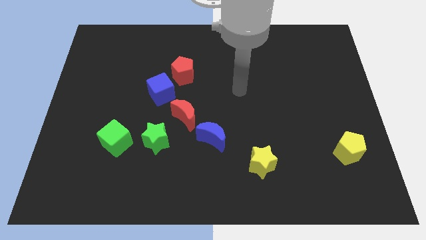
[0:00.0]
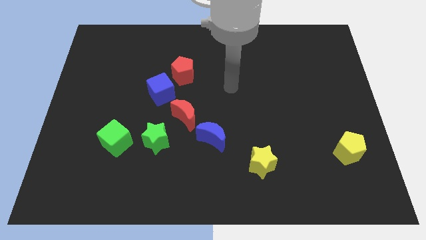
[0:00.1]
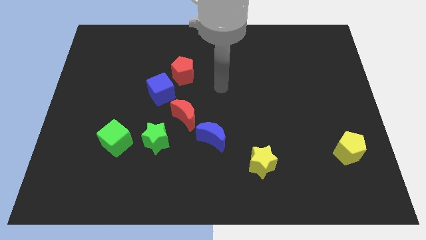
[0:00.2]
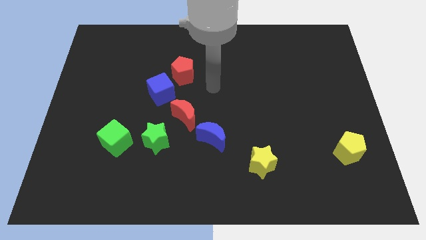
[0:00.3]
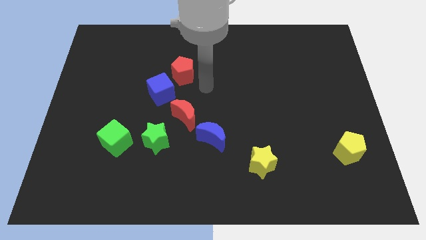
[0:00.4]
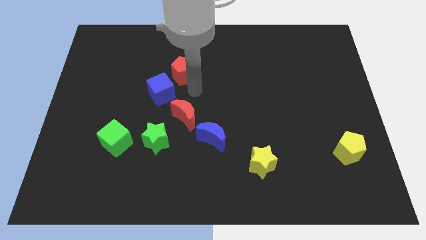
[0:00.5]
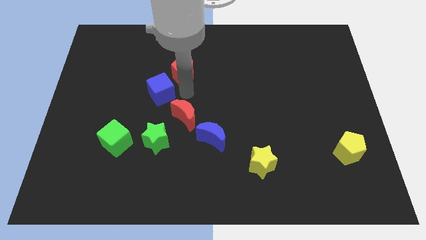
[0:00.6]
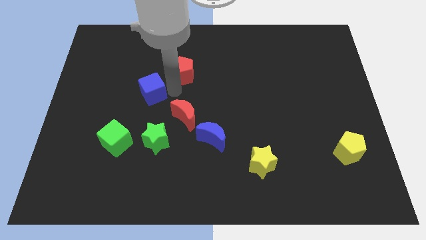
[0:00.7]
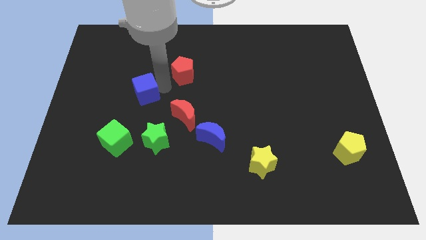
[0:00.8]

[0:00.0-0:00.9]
pull the red pentagon apart from the blue cube

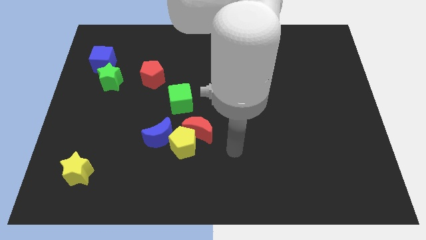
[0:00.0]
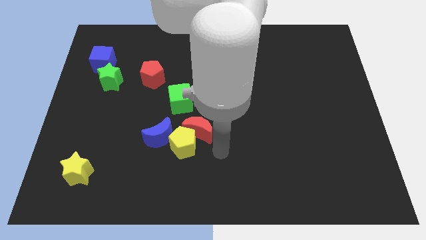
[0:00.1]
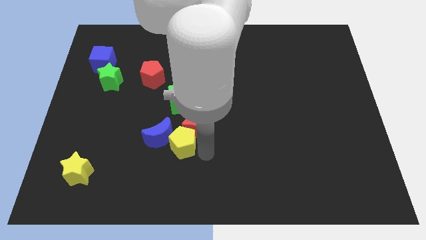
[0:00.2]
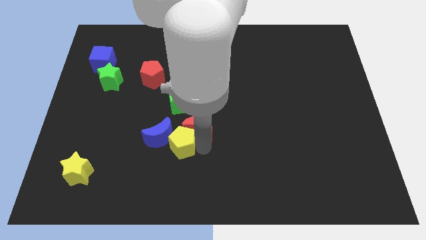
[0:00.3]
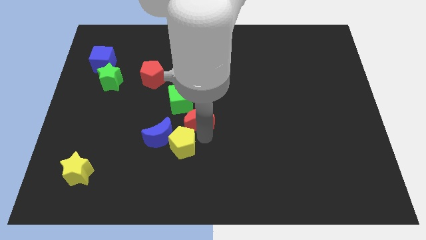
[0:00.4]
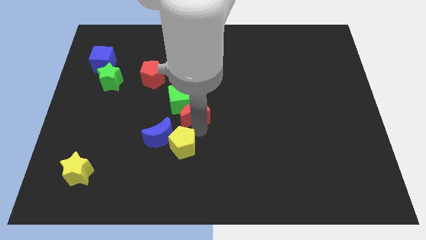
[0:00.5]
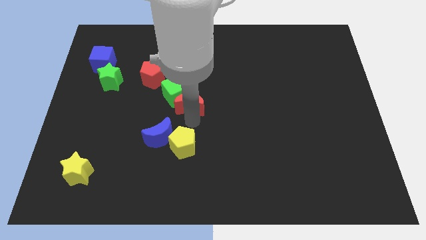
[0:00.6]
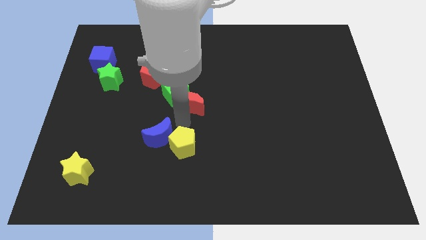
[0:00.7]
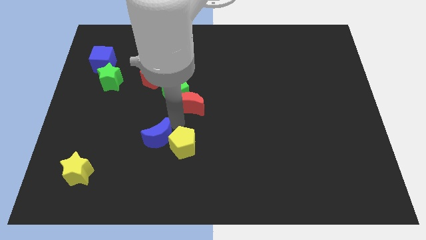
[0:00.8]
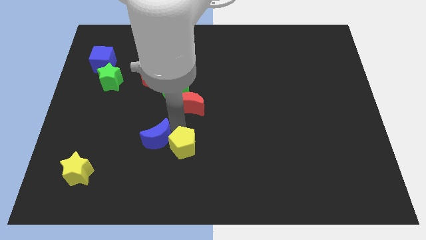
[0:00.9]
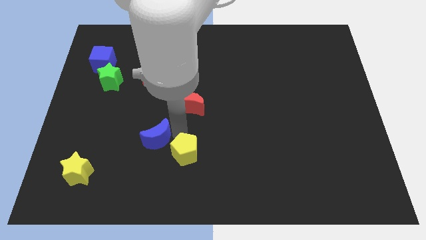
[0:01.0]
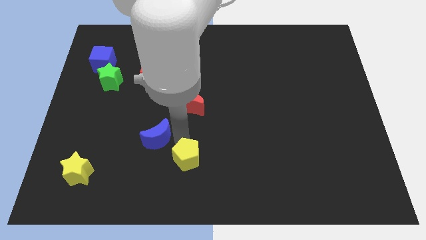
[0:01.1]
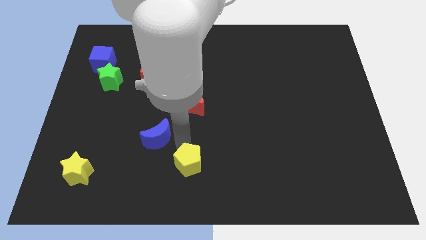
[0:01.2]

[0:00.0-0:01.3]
pull the yellow pentagon apart from the red moon and blue moon

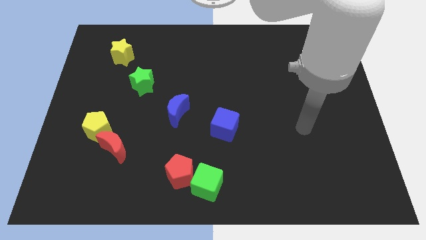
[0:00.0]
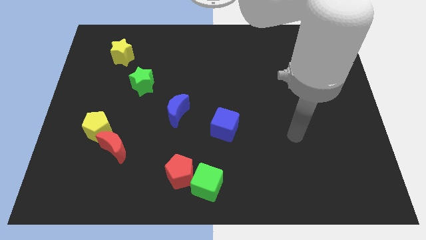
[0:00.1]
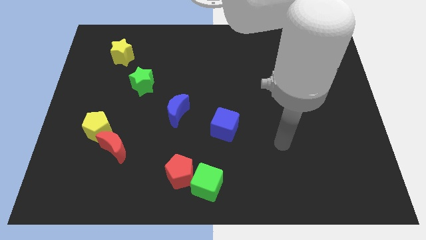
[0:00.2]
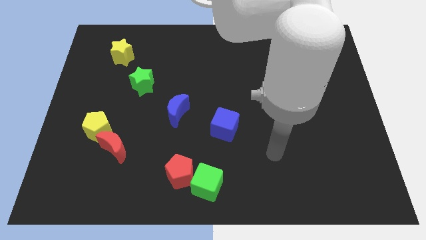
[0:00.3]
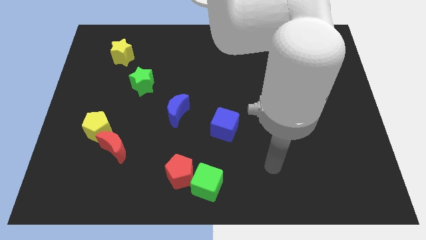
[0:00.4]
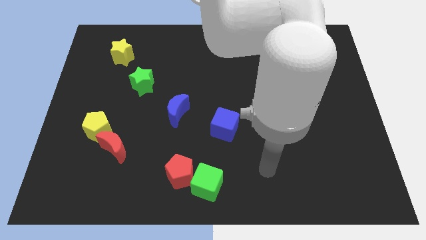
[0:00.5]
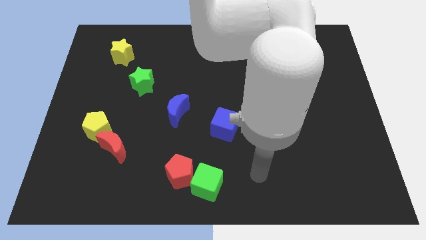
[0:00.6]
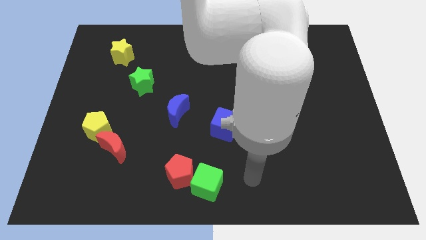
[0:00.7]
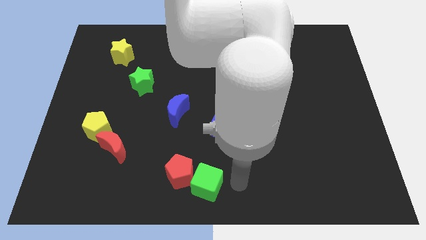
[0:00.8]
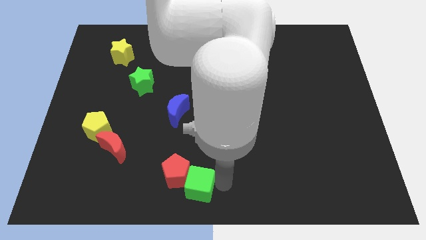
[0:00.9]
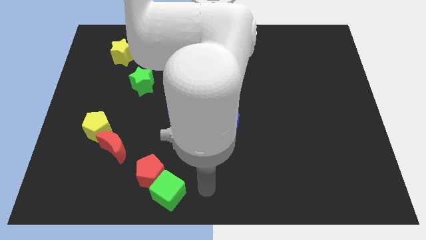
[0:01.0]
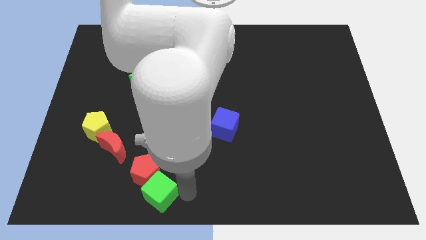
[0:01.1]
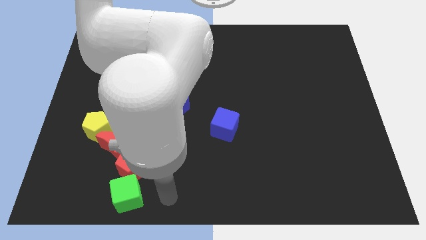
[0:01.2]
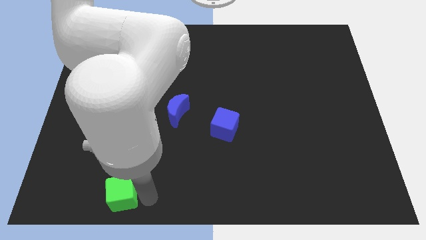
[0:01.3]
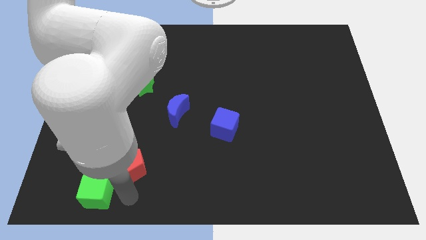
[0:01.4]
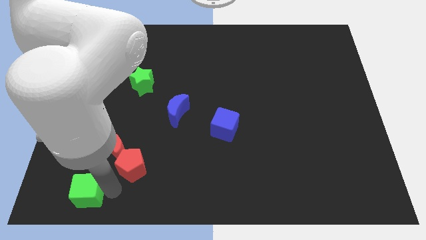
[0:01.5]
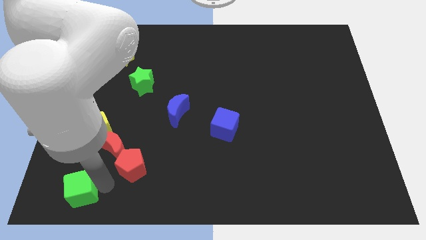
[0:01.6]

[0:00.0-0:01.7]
move the red pentagon away from the green cube

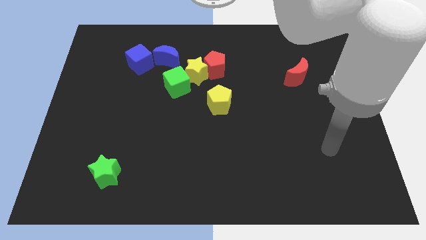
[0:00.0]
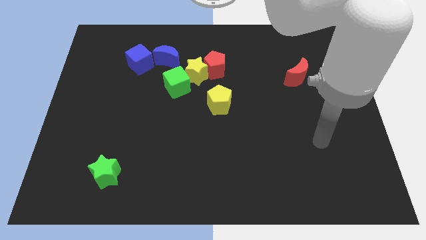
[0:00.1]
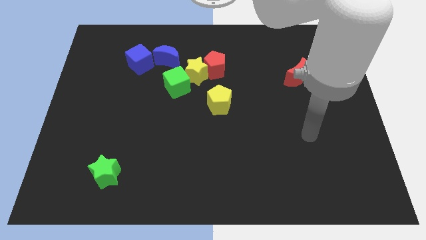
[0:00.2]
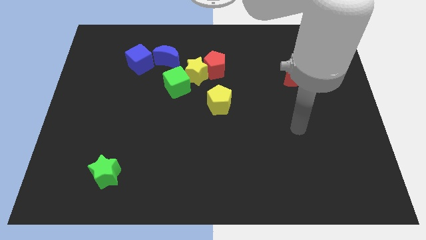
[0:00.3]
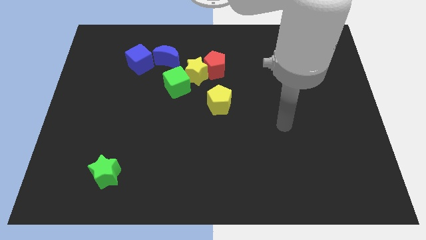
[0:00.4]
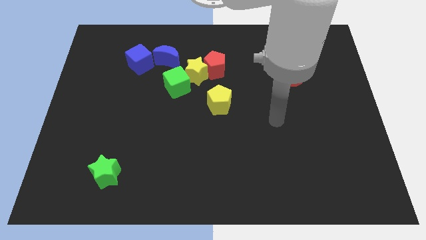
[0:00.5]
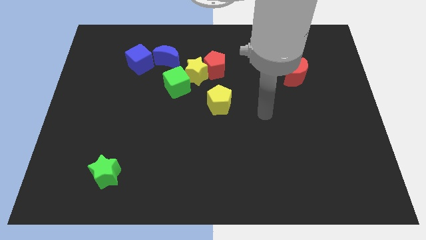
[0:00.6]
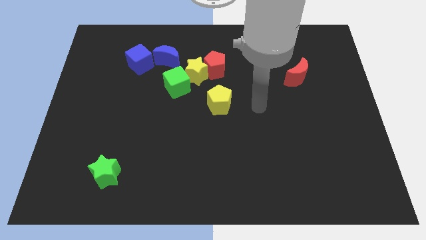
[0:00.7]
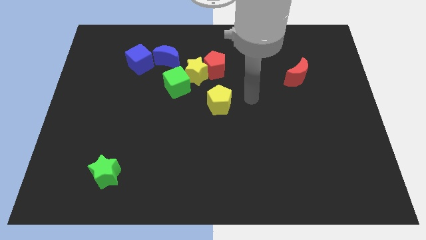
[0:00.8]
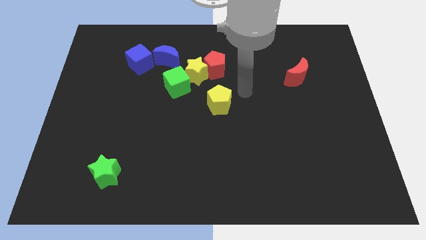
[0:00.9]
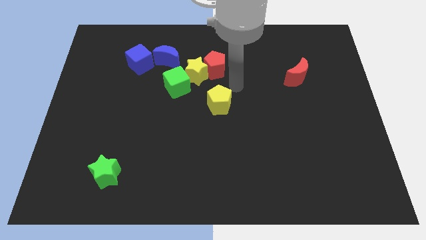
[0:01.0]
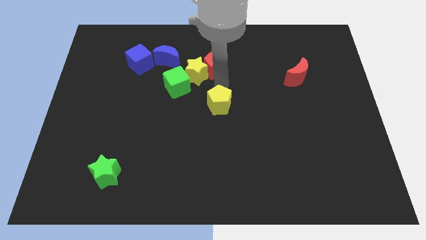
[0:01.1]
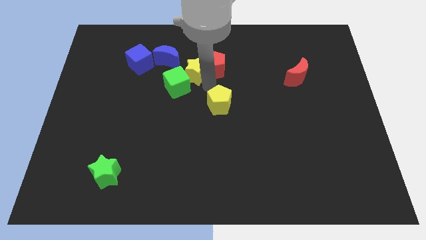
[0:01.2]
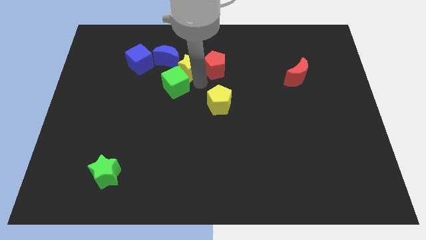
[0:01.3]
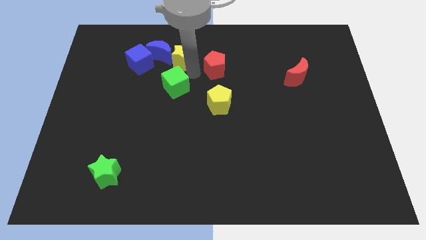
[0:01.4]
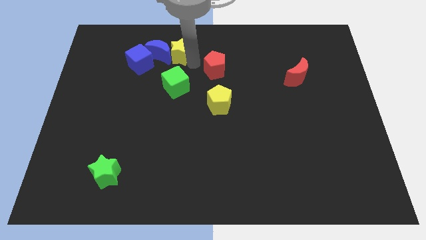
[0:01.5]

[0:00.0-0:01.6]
separate the red pentagon from the yellow star

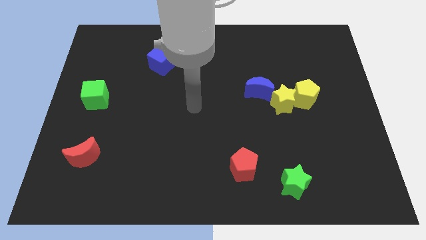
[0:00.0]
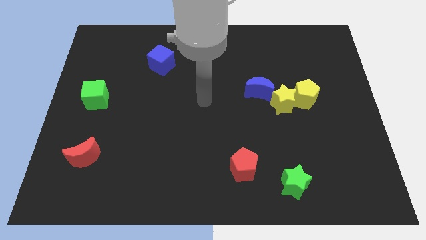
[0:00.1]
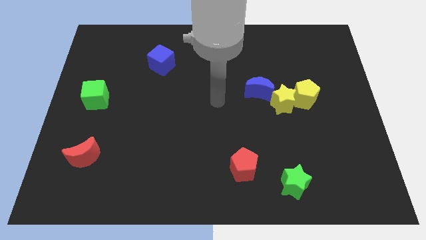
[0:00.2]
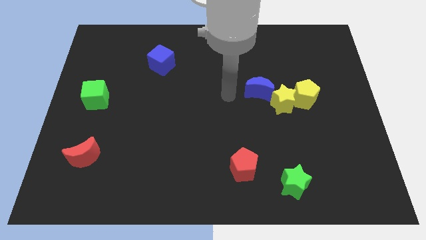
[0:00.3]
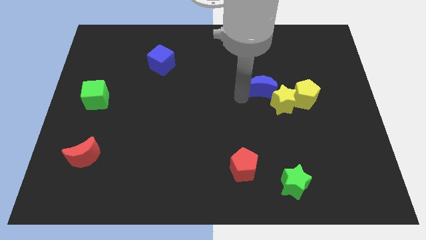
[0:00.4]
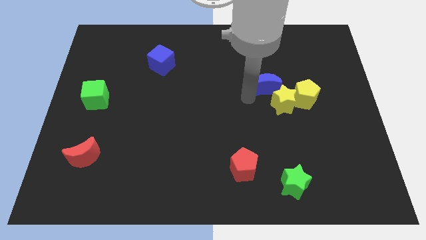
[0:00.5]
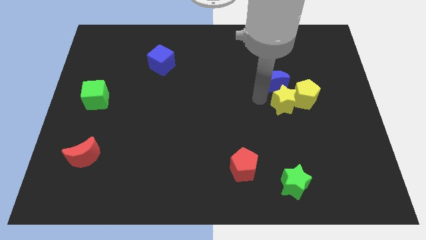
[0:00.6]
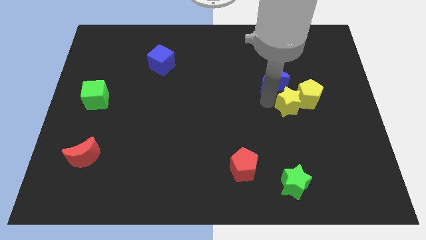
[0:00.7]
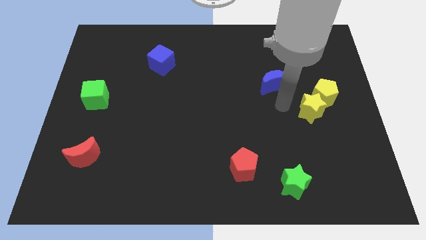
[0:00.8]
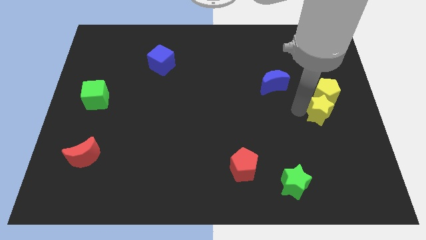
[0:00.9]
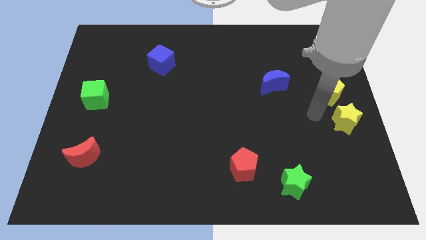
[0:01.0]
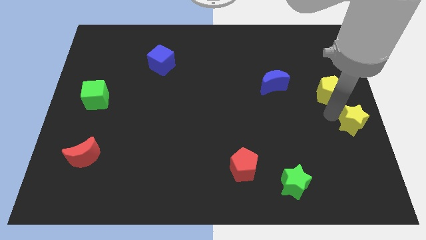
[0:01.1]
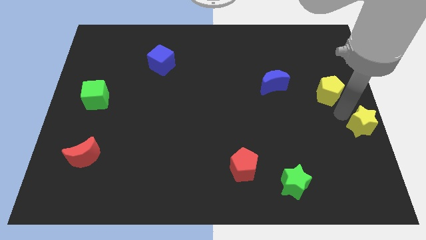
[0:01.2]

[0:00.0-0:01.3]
pull the yellow pentagon apart from the yellow star

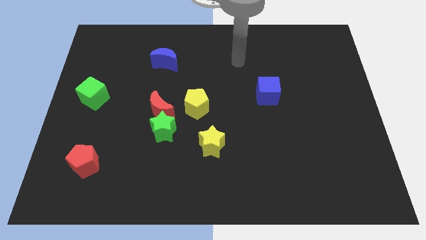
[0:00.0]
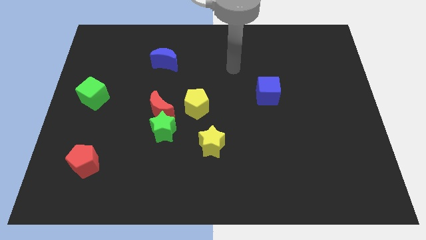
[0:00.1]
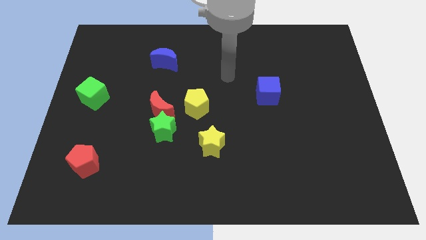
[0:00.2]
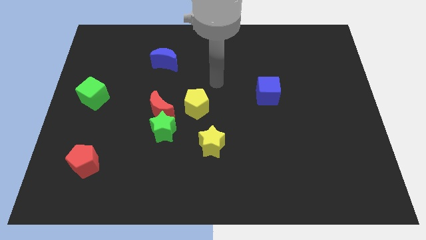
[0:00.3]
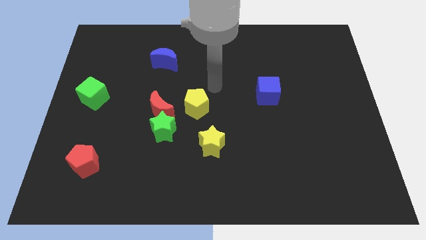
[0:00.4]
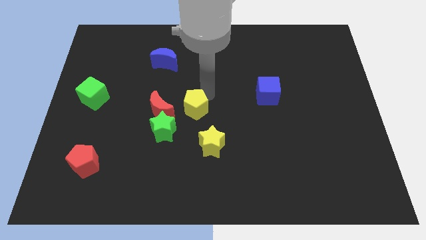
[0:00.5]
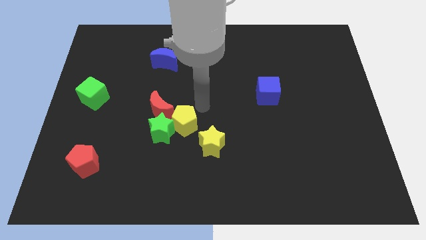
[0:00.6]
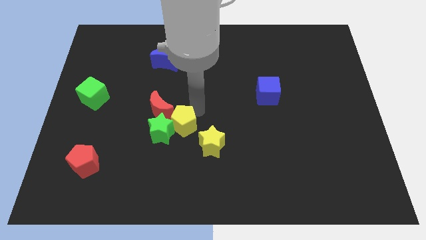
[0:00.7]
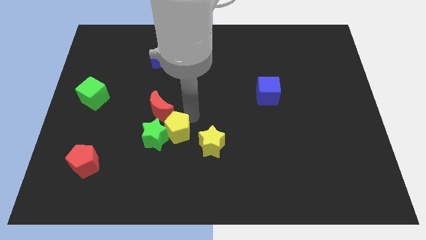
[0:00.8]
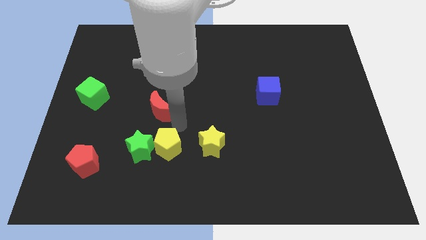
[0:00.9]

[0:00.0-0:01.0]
separate the red moon from the green star and yellow pentagon

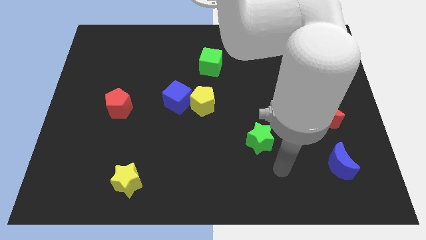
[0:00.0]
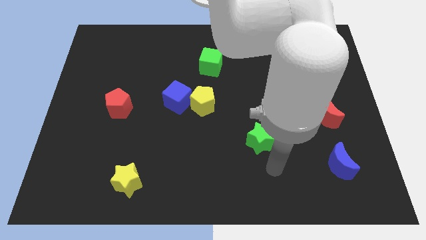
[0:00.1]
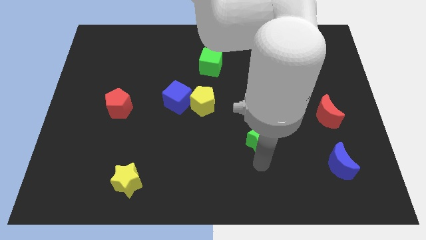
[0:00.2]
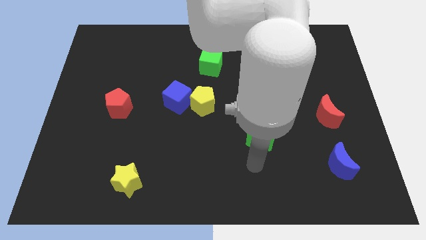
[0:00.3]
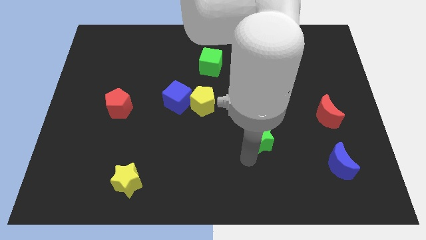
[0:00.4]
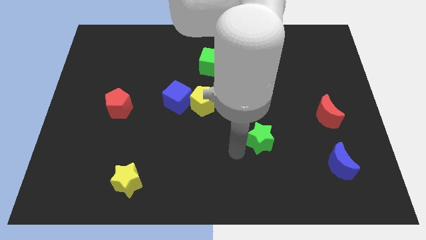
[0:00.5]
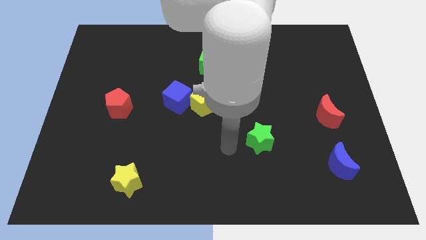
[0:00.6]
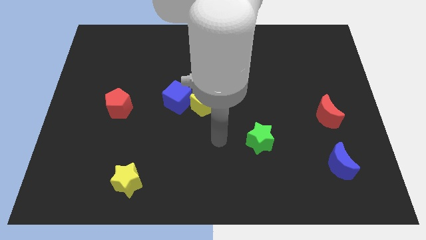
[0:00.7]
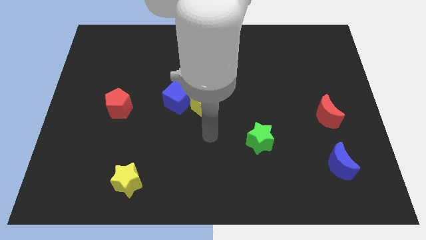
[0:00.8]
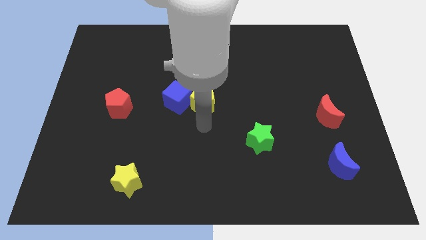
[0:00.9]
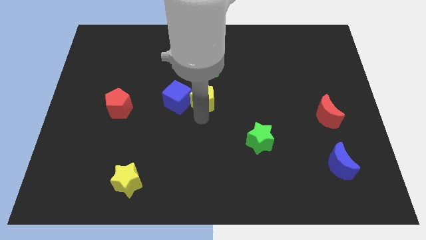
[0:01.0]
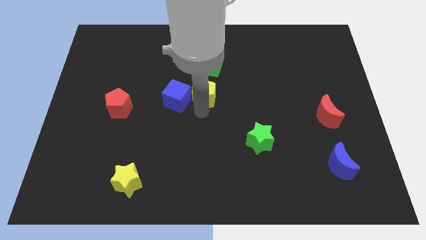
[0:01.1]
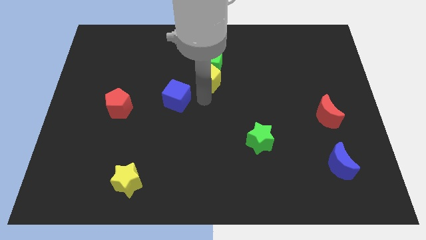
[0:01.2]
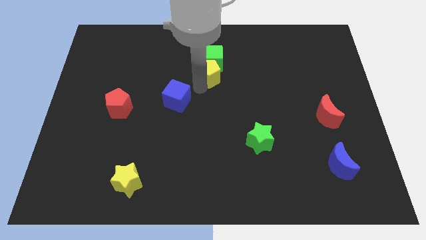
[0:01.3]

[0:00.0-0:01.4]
separate the blue cube from the yellow pentagon
